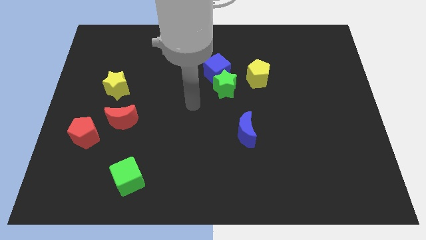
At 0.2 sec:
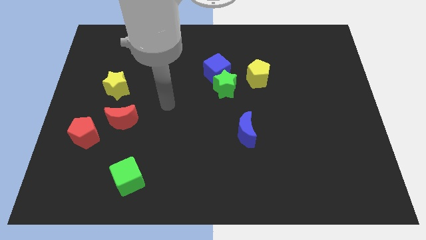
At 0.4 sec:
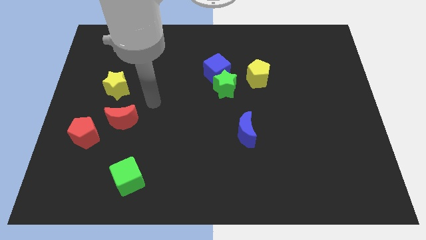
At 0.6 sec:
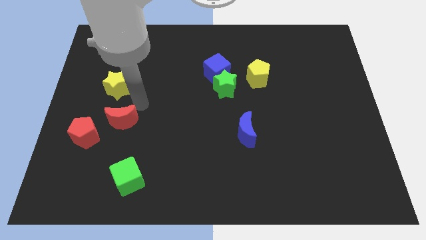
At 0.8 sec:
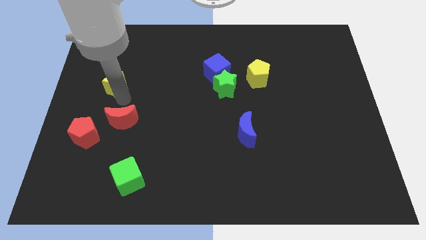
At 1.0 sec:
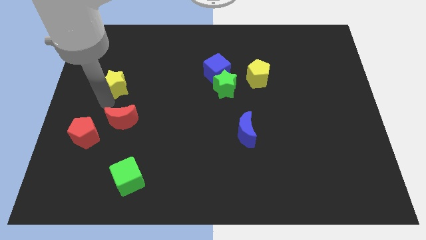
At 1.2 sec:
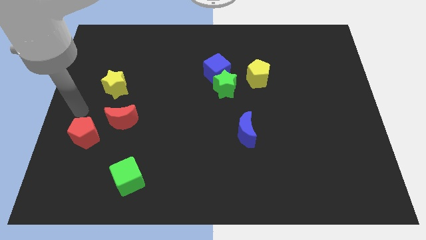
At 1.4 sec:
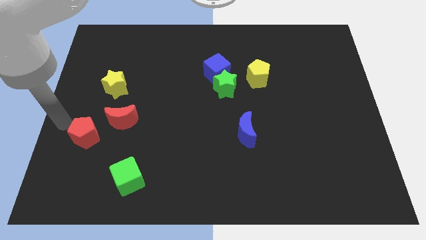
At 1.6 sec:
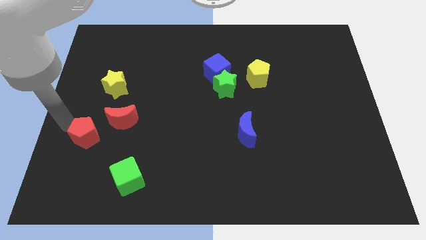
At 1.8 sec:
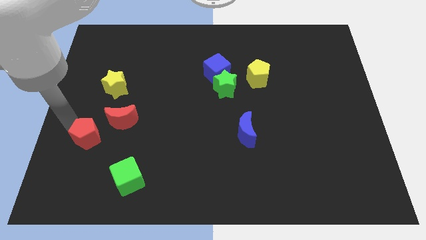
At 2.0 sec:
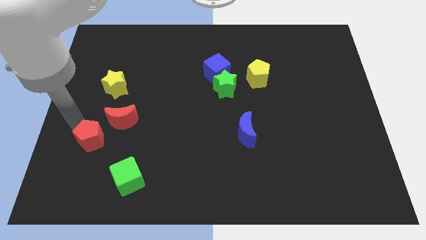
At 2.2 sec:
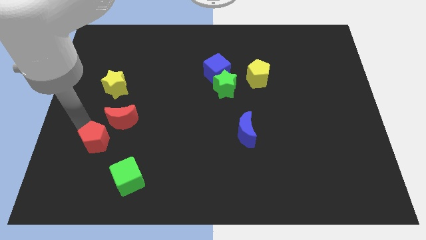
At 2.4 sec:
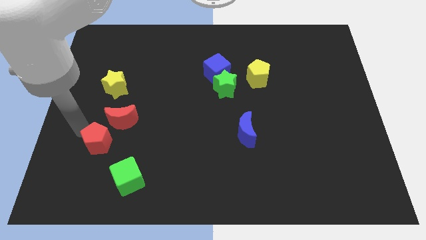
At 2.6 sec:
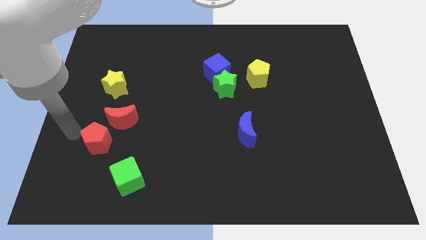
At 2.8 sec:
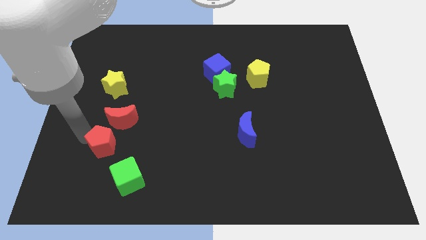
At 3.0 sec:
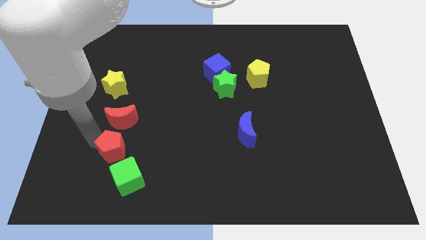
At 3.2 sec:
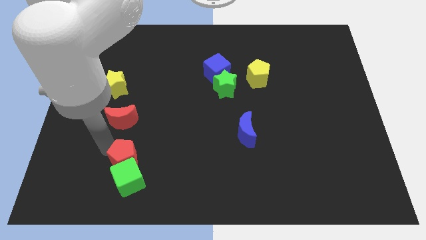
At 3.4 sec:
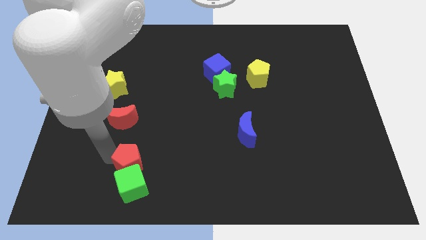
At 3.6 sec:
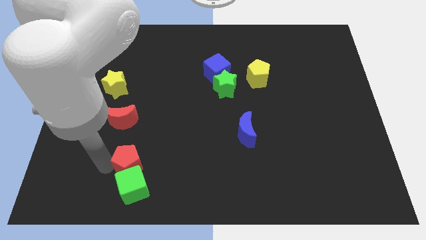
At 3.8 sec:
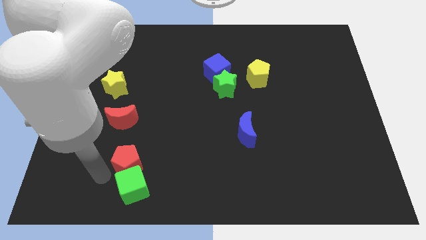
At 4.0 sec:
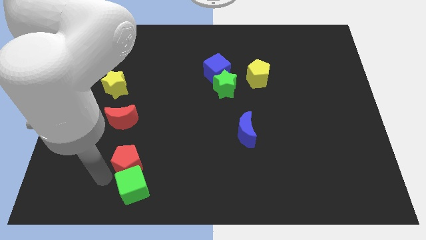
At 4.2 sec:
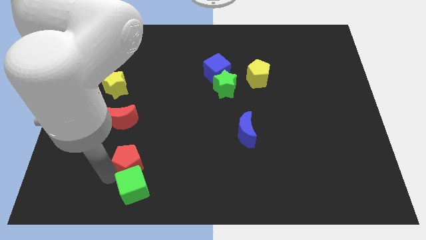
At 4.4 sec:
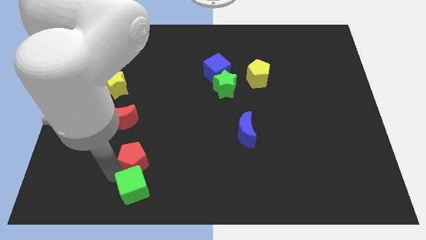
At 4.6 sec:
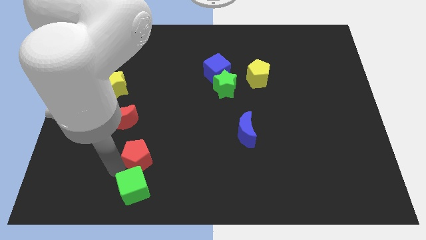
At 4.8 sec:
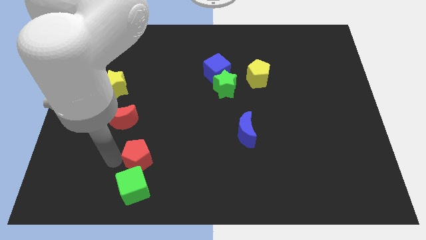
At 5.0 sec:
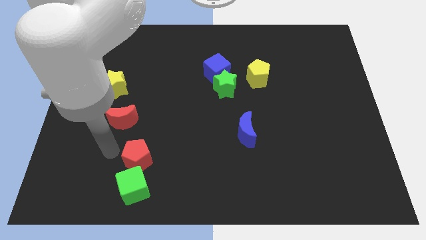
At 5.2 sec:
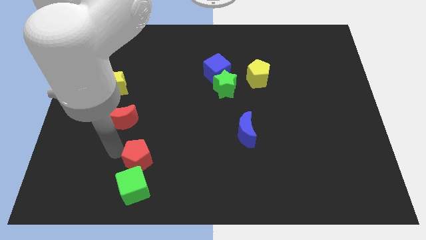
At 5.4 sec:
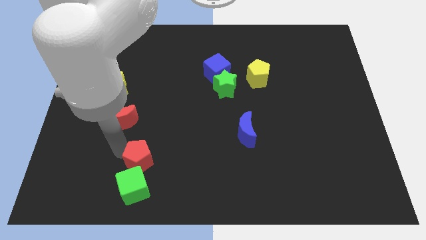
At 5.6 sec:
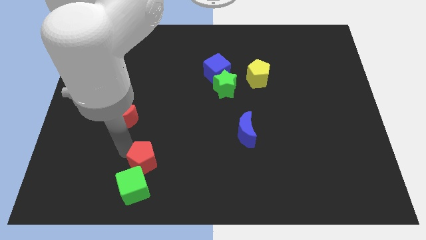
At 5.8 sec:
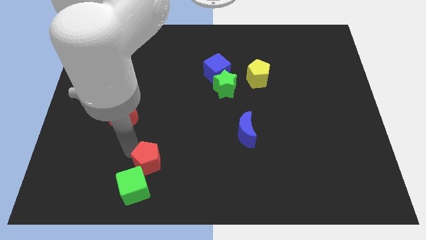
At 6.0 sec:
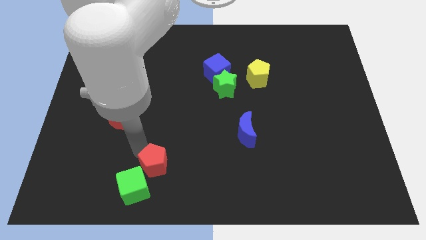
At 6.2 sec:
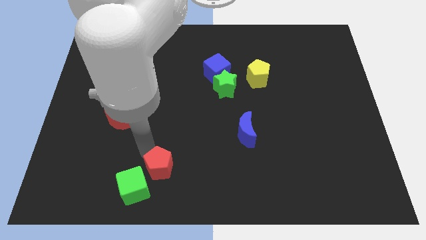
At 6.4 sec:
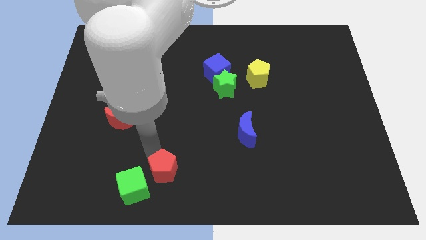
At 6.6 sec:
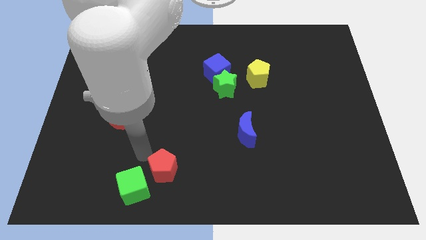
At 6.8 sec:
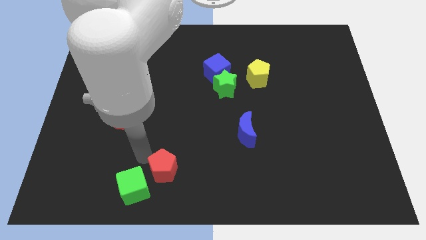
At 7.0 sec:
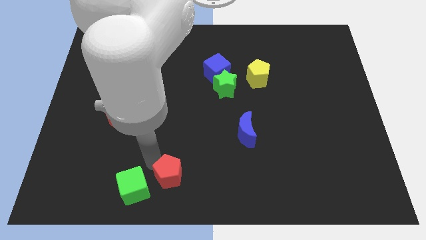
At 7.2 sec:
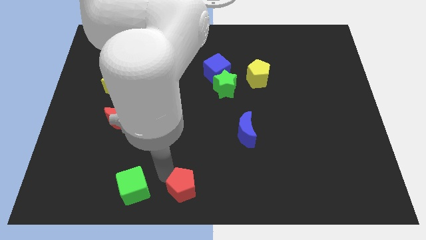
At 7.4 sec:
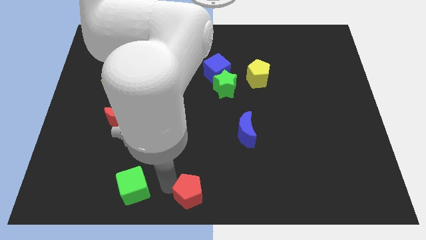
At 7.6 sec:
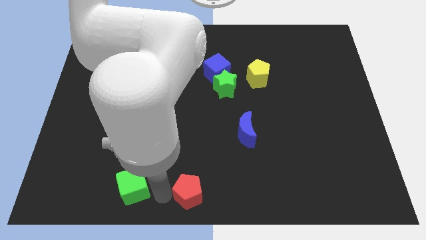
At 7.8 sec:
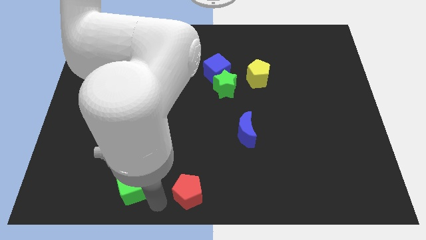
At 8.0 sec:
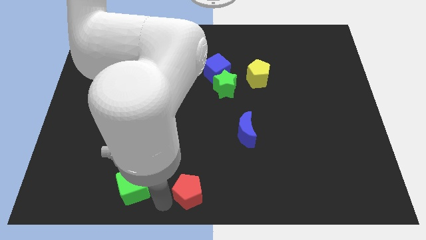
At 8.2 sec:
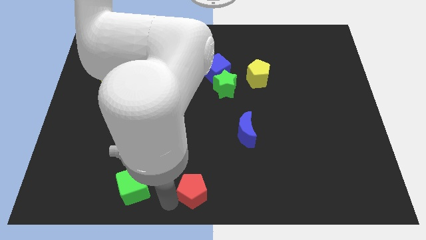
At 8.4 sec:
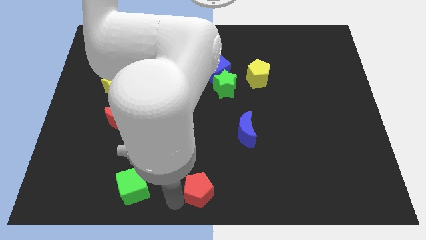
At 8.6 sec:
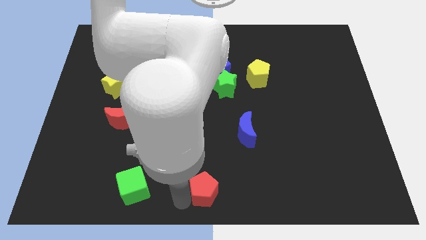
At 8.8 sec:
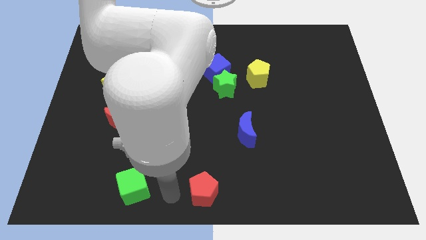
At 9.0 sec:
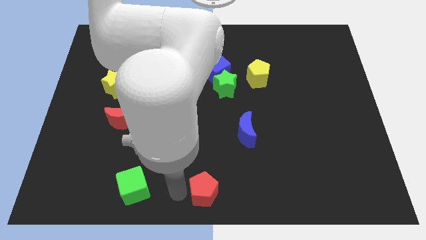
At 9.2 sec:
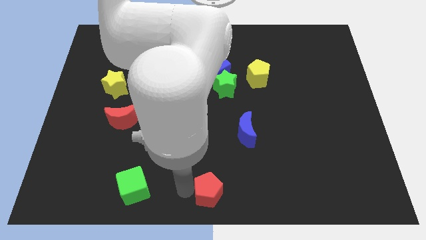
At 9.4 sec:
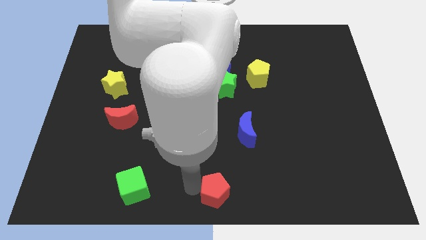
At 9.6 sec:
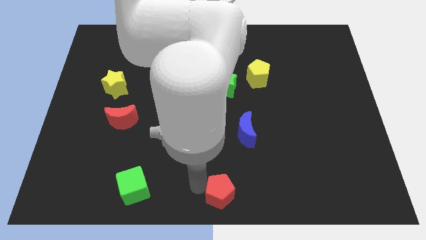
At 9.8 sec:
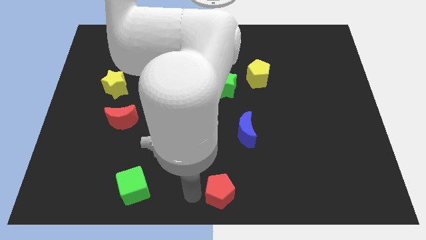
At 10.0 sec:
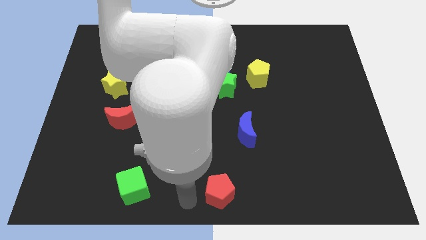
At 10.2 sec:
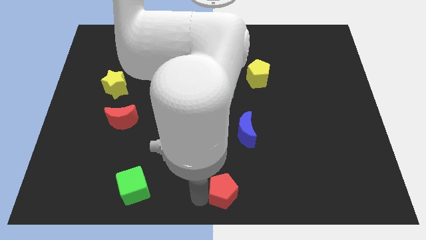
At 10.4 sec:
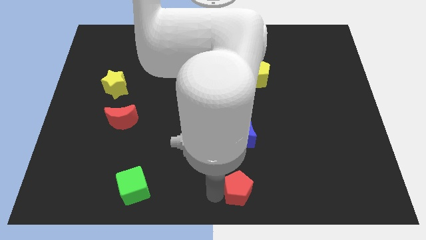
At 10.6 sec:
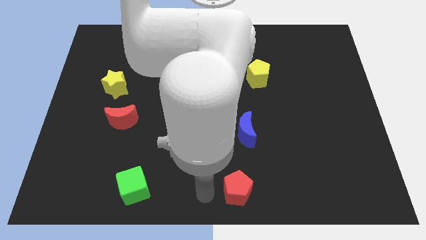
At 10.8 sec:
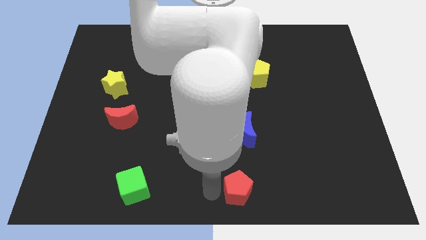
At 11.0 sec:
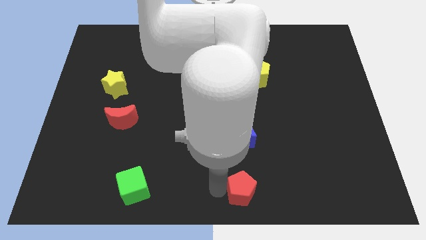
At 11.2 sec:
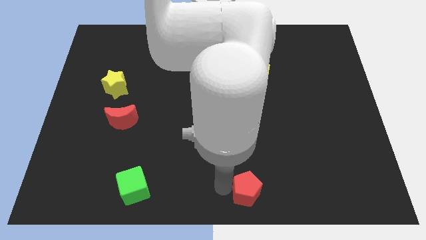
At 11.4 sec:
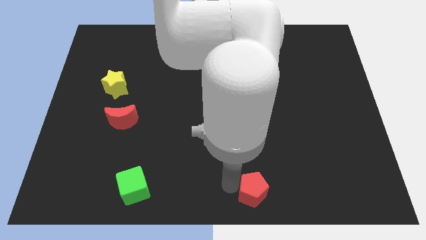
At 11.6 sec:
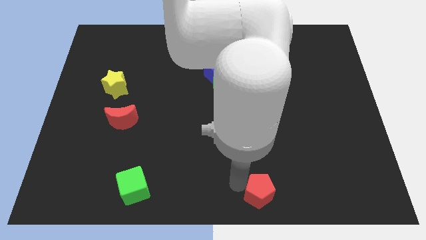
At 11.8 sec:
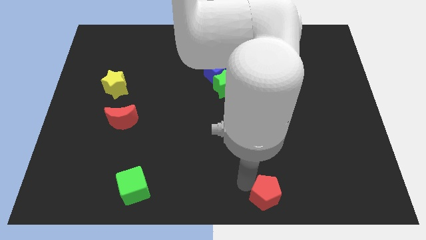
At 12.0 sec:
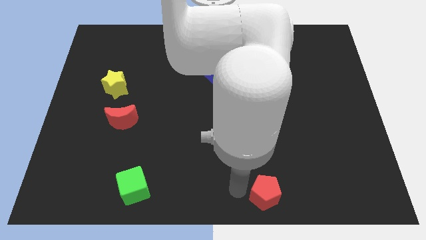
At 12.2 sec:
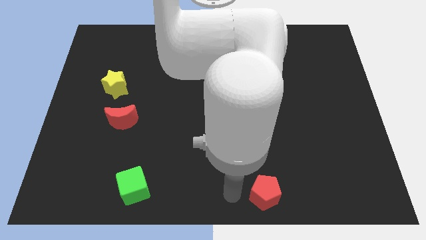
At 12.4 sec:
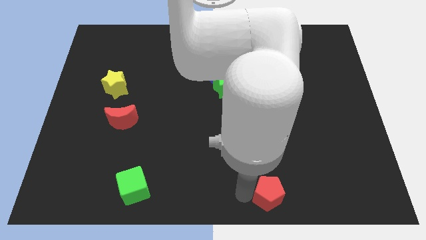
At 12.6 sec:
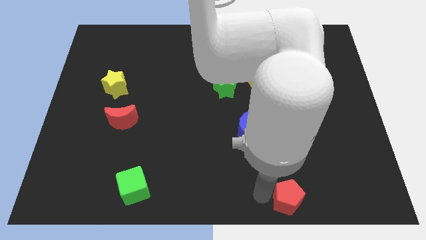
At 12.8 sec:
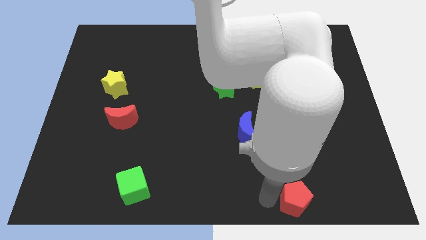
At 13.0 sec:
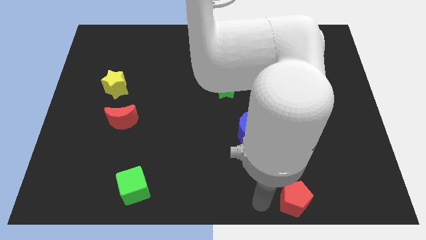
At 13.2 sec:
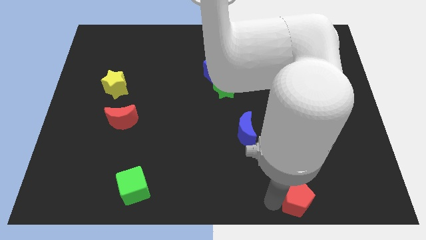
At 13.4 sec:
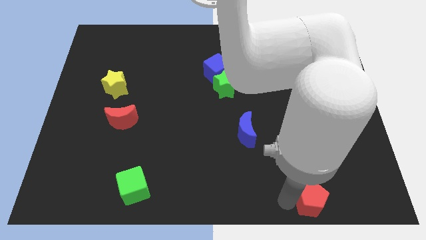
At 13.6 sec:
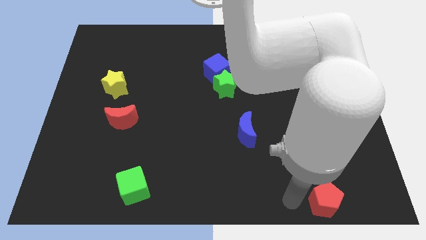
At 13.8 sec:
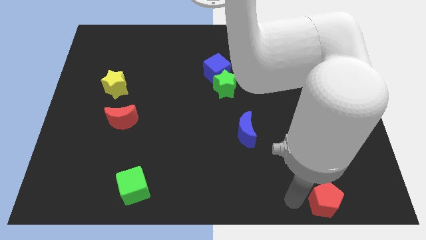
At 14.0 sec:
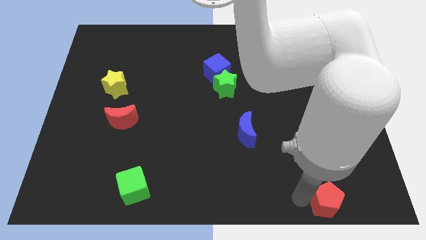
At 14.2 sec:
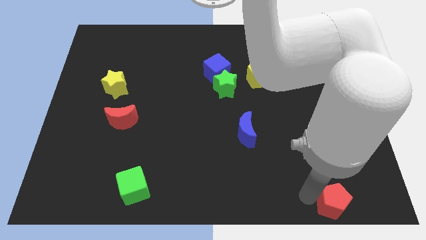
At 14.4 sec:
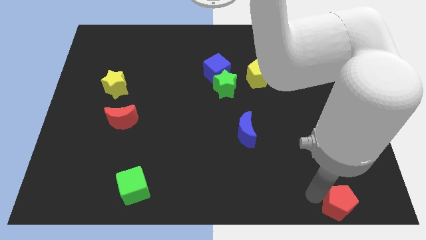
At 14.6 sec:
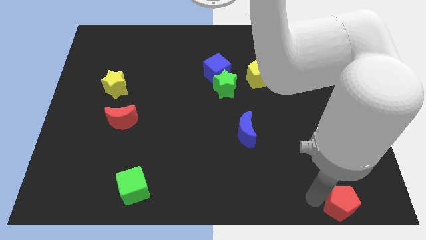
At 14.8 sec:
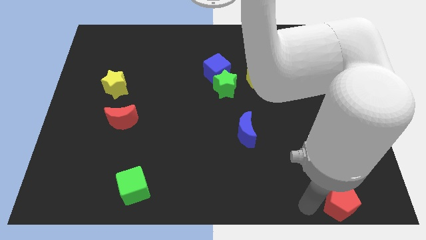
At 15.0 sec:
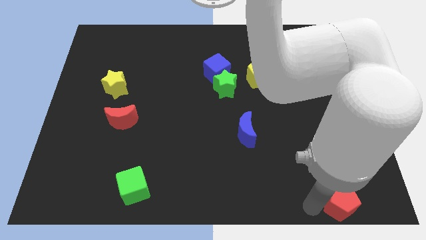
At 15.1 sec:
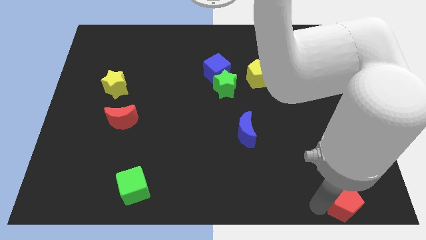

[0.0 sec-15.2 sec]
slide the red pentagon to the bottom right
